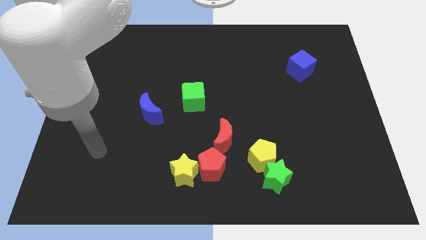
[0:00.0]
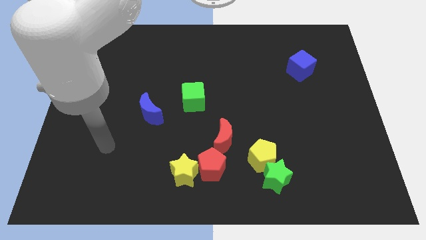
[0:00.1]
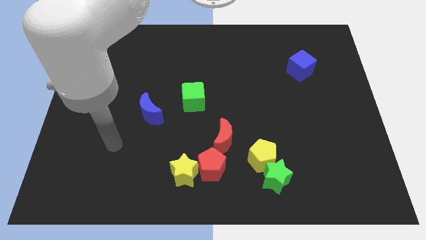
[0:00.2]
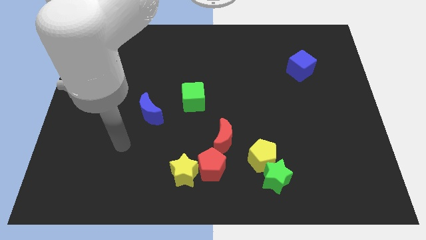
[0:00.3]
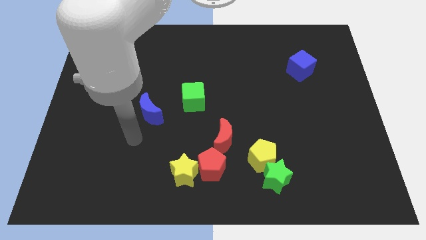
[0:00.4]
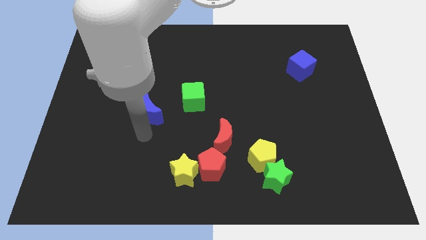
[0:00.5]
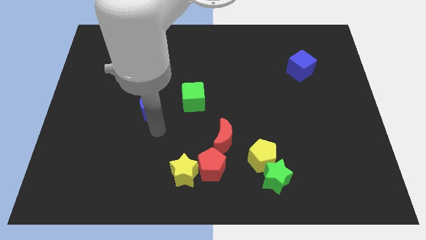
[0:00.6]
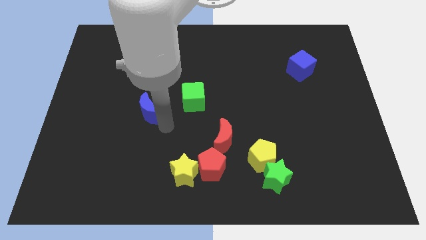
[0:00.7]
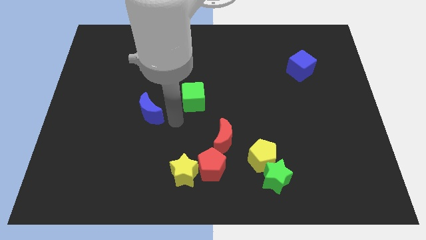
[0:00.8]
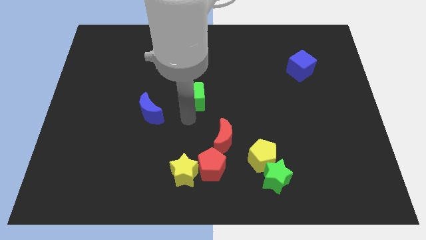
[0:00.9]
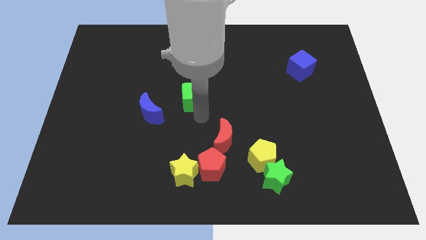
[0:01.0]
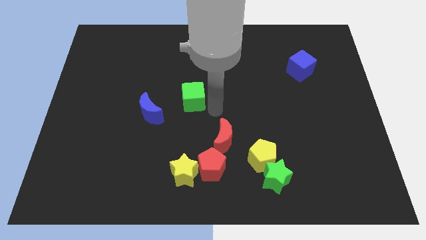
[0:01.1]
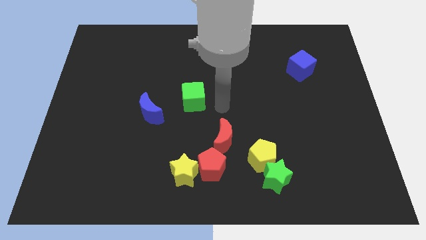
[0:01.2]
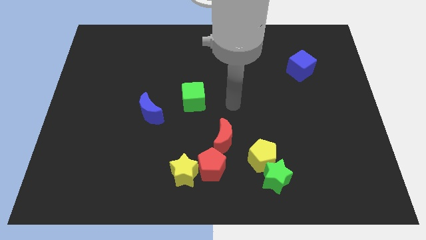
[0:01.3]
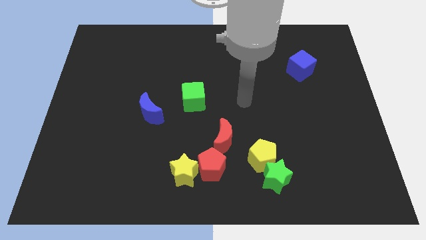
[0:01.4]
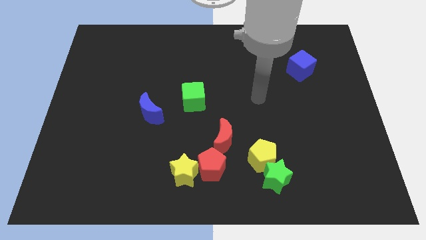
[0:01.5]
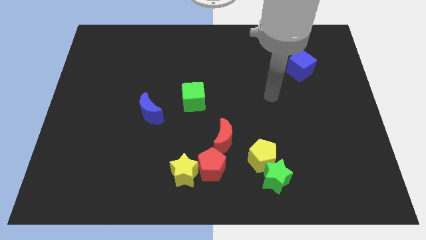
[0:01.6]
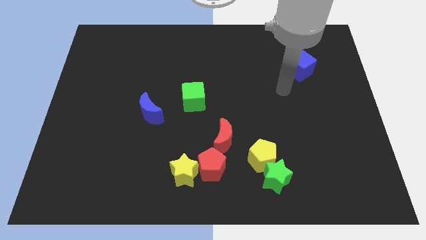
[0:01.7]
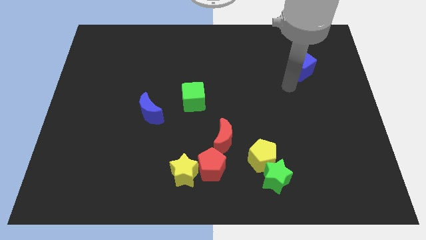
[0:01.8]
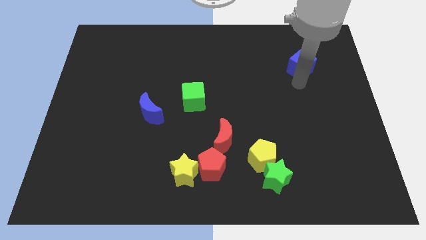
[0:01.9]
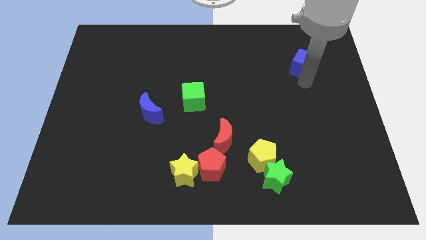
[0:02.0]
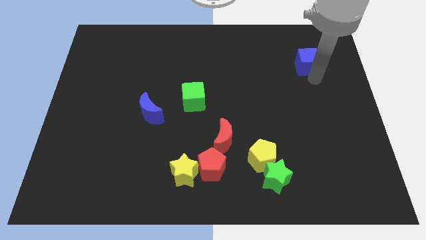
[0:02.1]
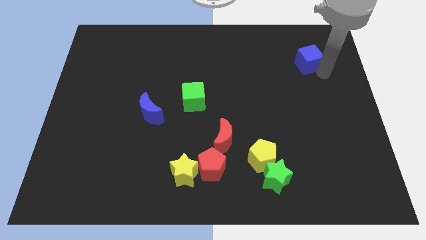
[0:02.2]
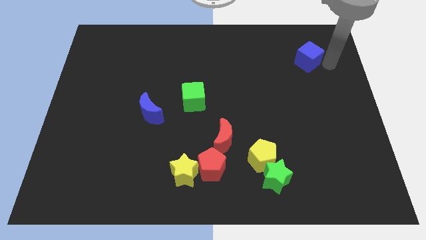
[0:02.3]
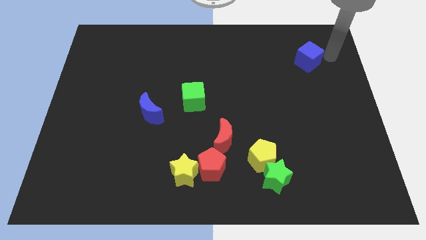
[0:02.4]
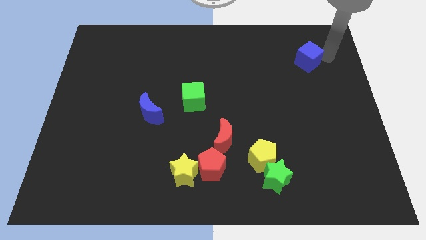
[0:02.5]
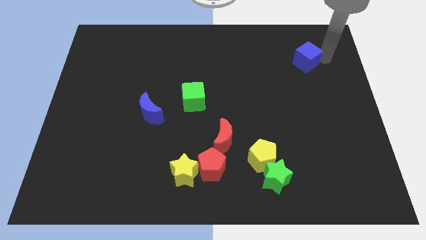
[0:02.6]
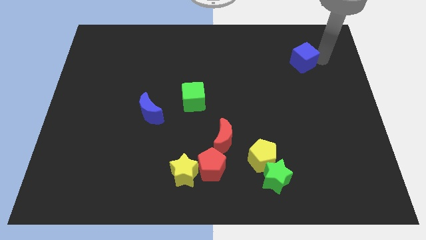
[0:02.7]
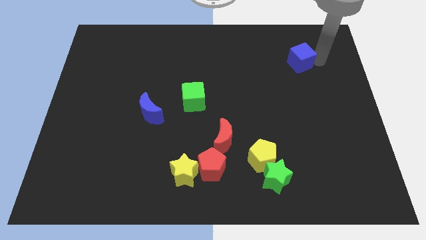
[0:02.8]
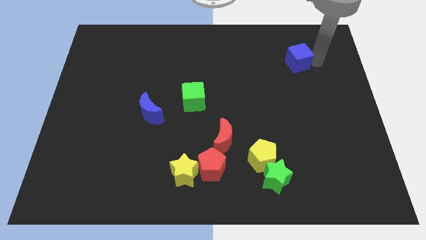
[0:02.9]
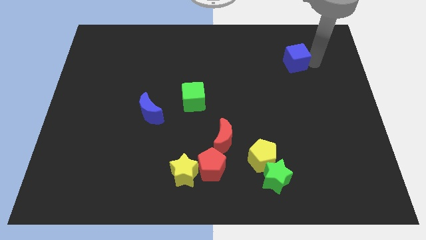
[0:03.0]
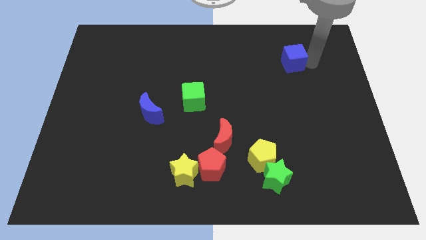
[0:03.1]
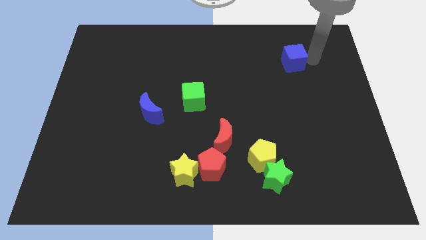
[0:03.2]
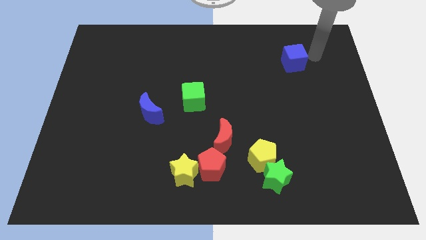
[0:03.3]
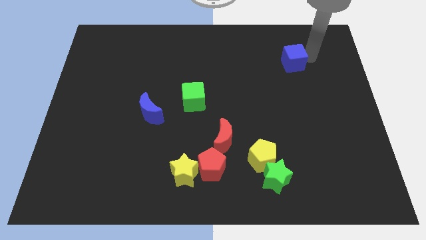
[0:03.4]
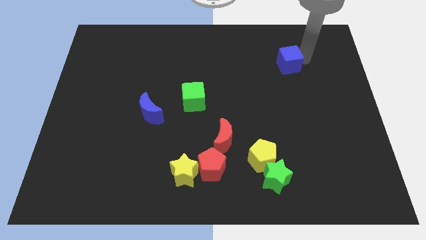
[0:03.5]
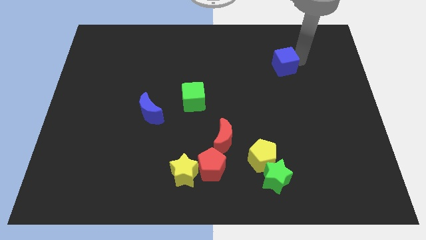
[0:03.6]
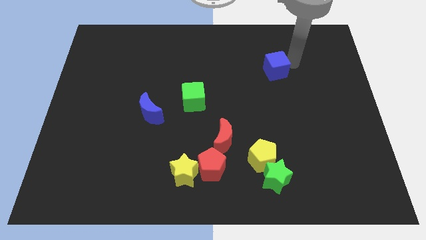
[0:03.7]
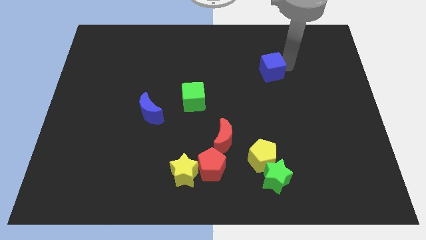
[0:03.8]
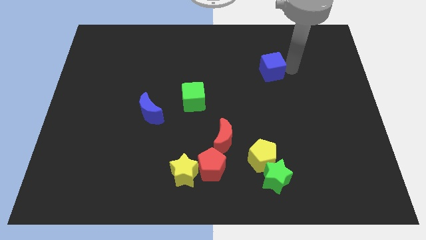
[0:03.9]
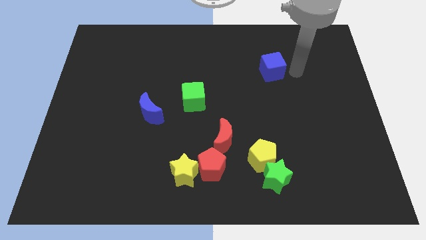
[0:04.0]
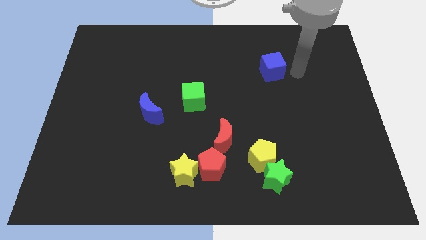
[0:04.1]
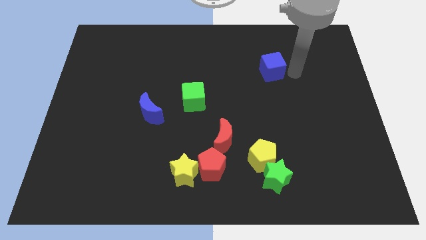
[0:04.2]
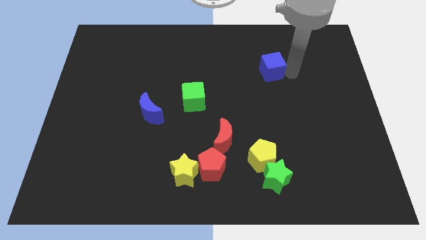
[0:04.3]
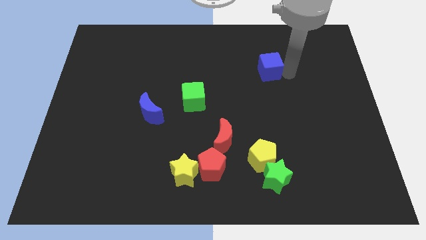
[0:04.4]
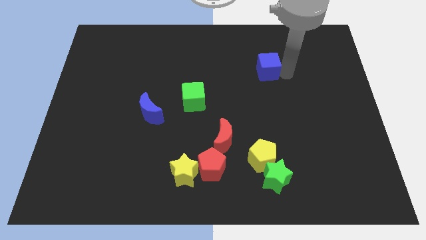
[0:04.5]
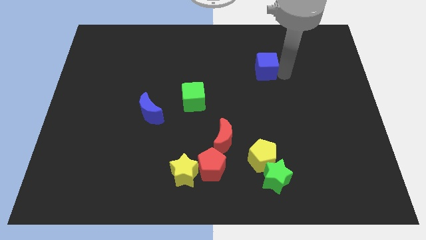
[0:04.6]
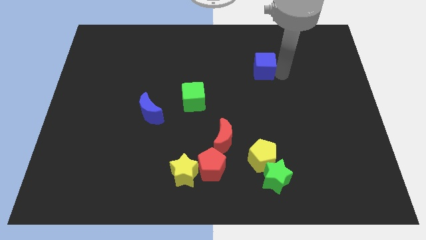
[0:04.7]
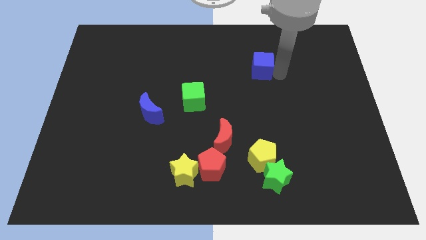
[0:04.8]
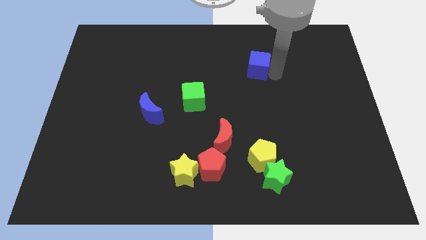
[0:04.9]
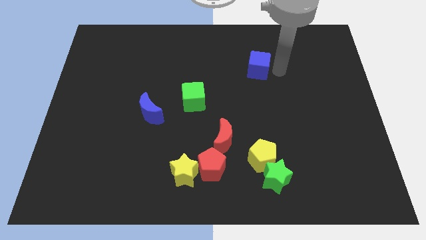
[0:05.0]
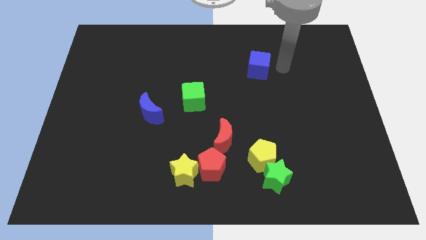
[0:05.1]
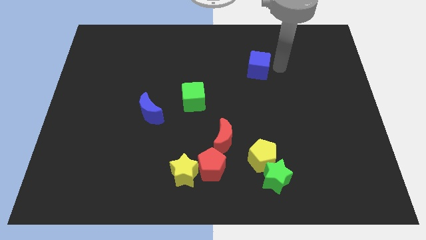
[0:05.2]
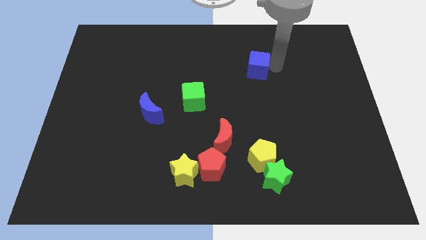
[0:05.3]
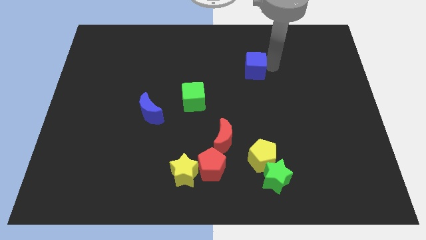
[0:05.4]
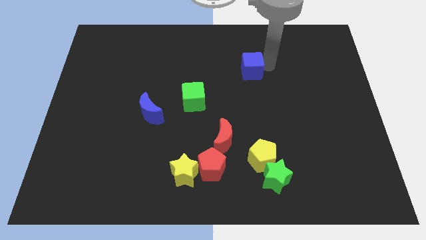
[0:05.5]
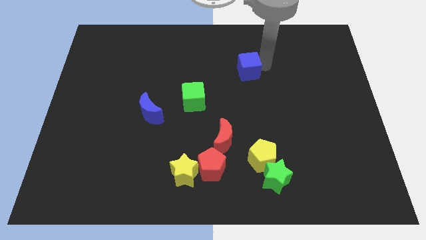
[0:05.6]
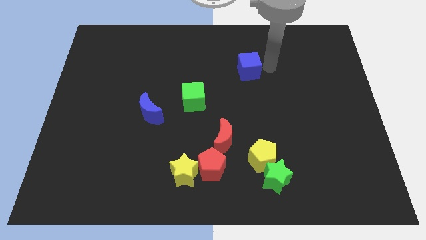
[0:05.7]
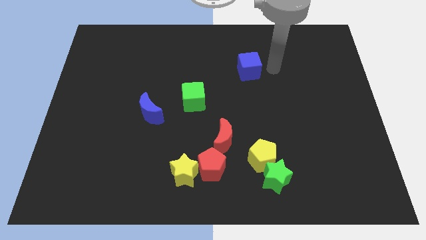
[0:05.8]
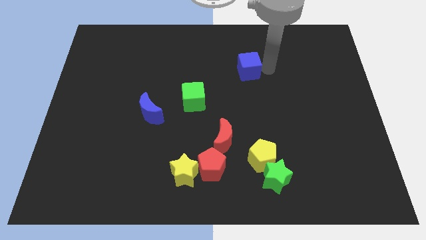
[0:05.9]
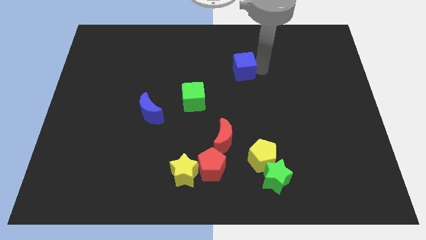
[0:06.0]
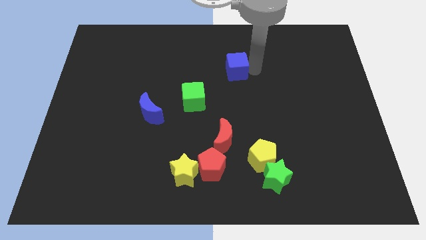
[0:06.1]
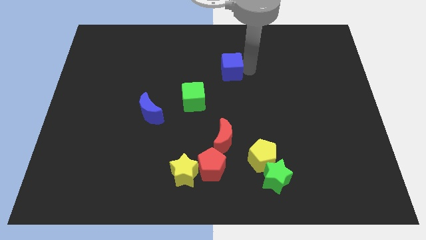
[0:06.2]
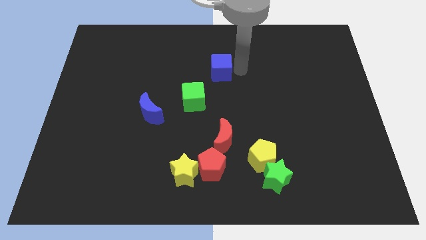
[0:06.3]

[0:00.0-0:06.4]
push the blue cube to the left

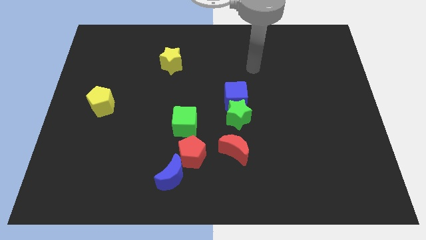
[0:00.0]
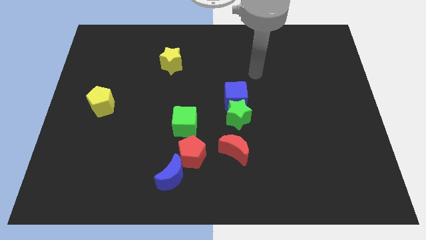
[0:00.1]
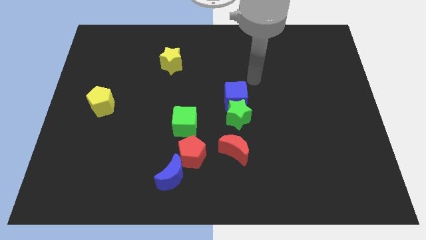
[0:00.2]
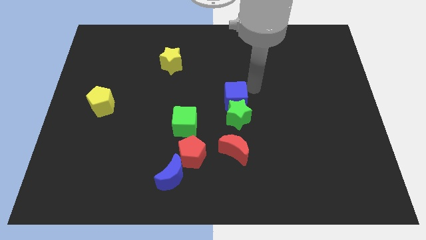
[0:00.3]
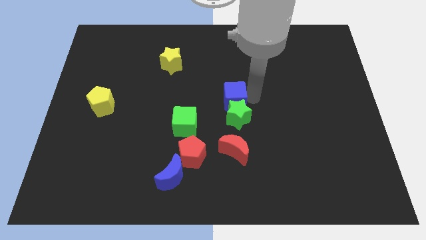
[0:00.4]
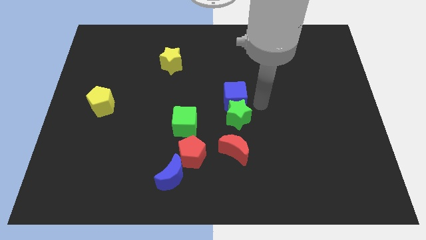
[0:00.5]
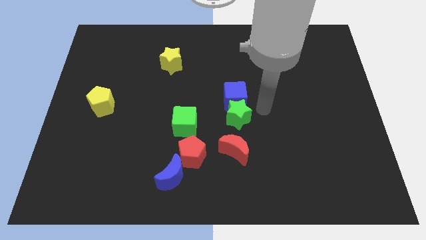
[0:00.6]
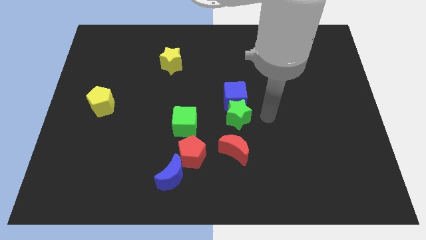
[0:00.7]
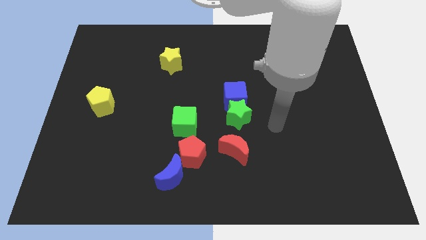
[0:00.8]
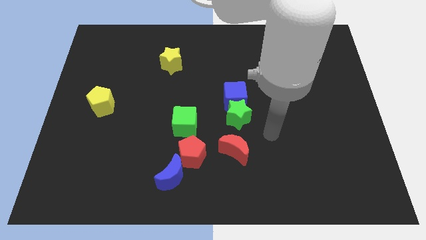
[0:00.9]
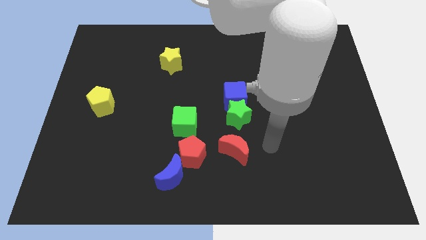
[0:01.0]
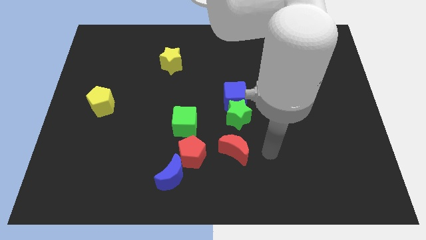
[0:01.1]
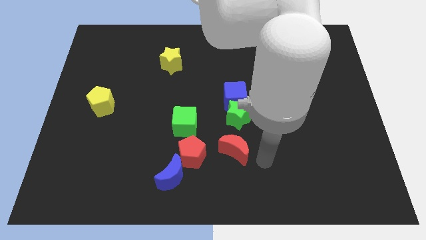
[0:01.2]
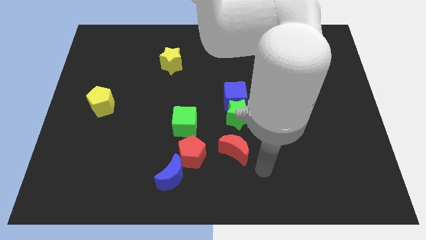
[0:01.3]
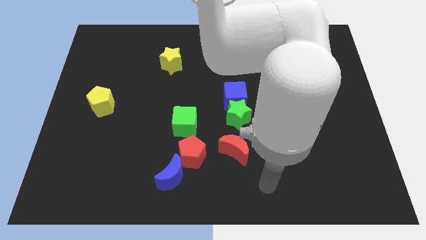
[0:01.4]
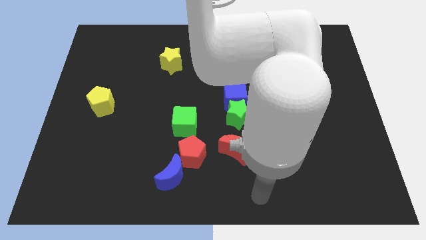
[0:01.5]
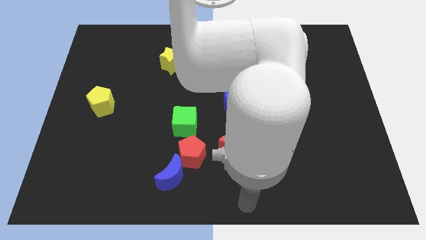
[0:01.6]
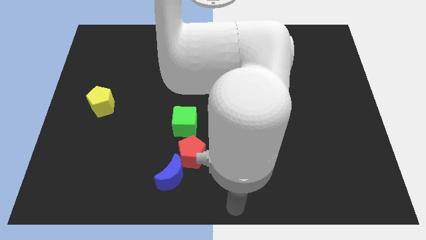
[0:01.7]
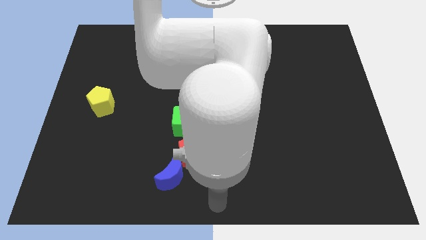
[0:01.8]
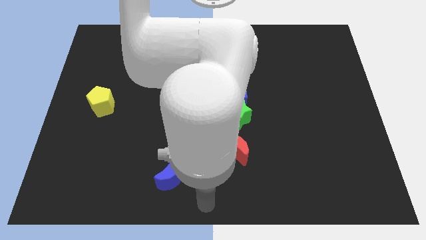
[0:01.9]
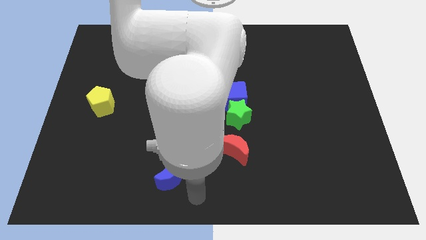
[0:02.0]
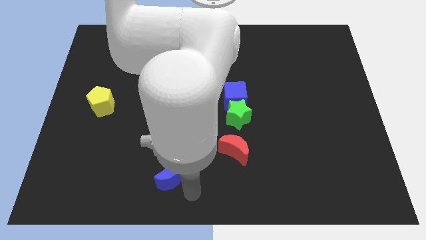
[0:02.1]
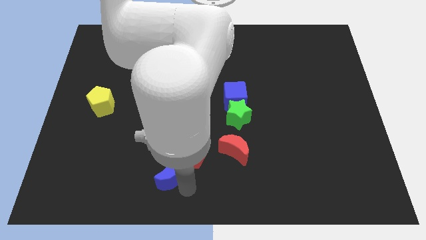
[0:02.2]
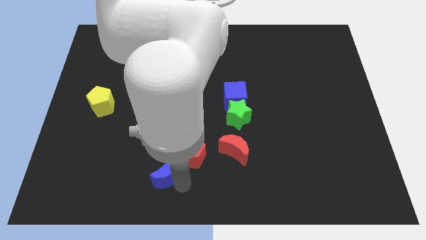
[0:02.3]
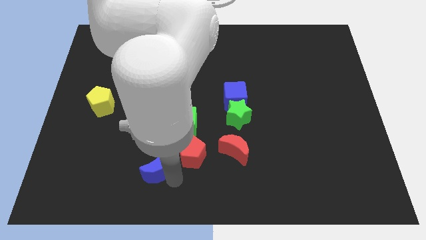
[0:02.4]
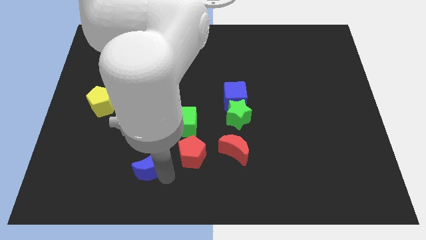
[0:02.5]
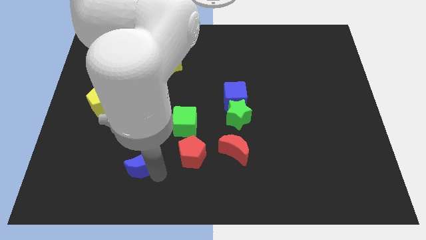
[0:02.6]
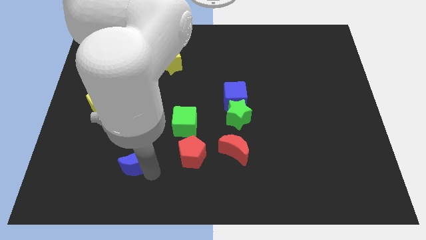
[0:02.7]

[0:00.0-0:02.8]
slightly move the blue moon diagonally up and left
